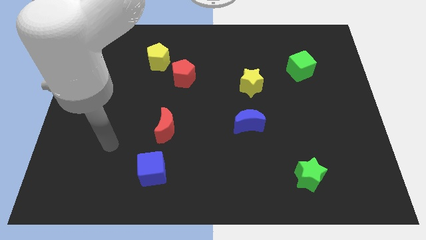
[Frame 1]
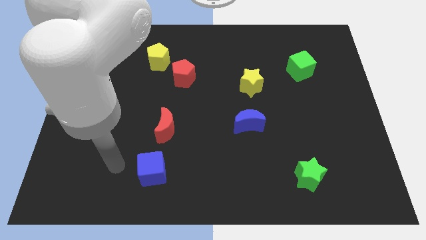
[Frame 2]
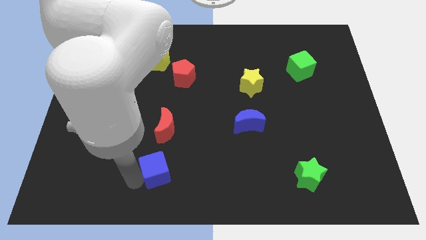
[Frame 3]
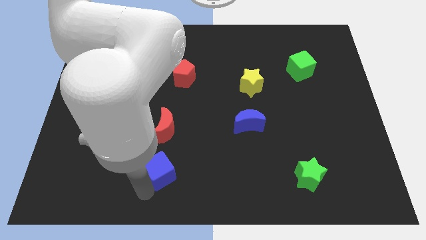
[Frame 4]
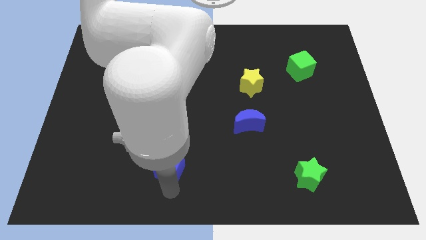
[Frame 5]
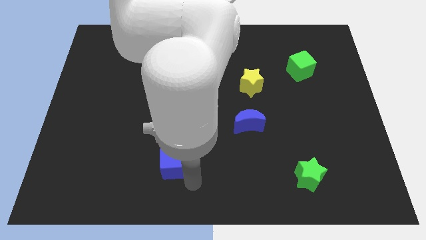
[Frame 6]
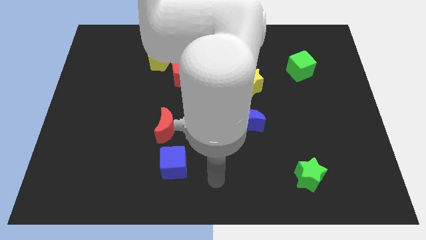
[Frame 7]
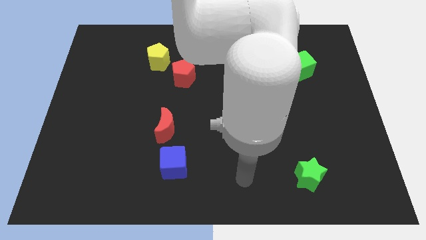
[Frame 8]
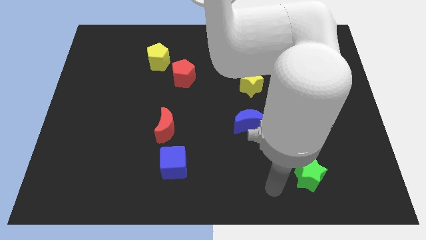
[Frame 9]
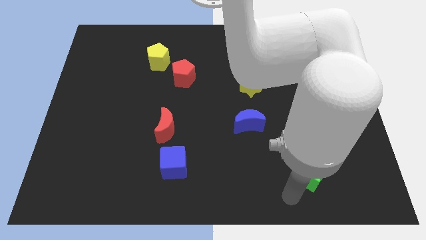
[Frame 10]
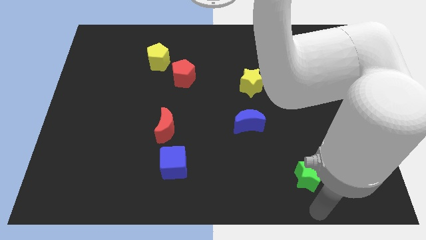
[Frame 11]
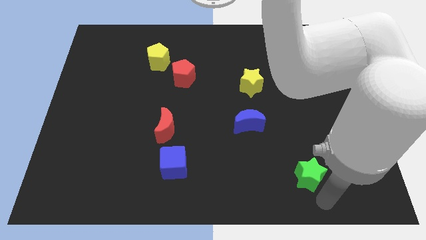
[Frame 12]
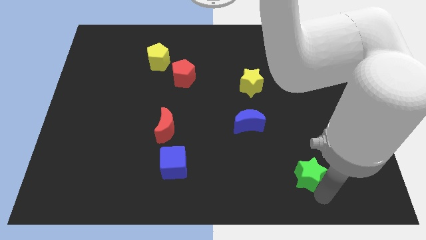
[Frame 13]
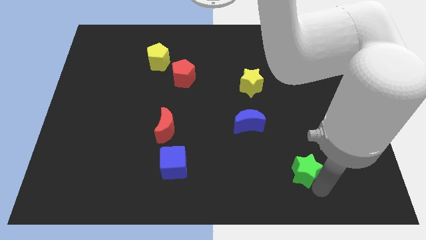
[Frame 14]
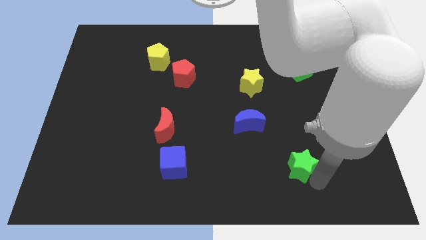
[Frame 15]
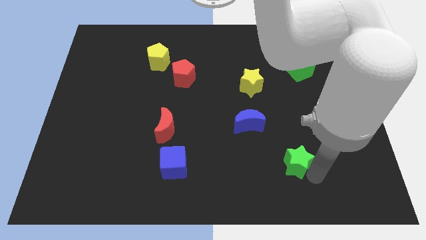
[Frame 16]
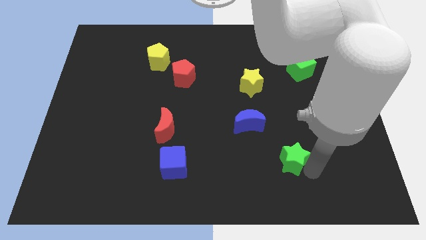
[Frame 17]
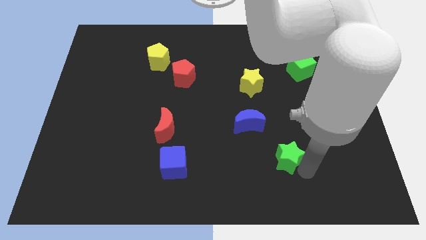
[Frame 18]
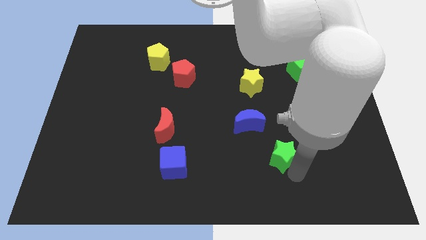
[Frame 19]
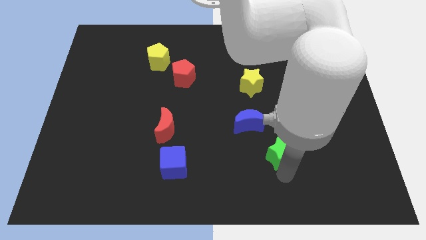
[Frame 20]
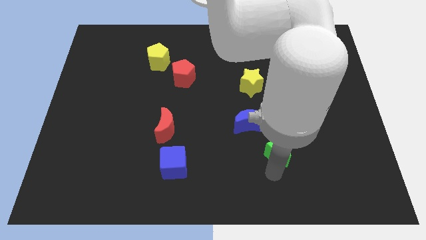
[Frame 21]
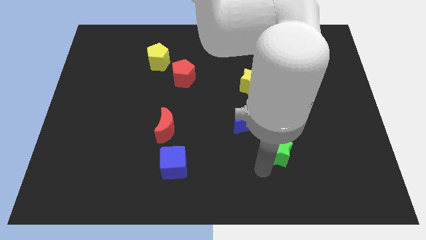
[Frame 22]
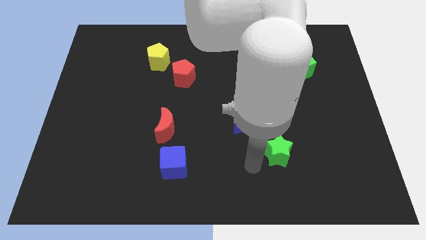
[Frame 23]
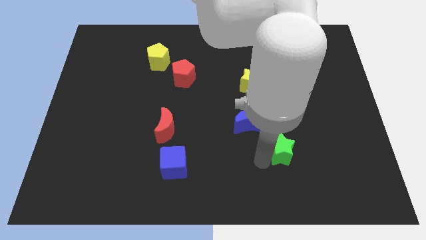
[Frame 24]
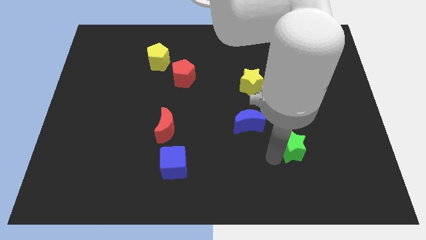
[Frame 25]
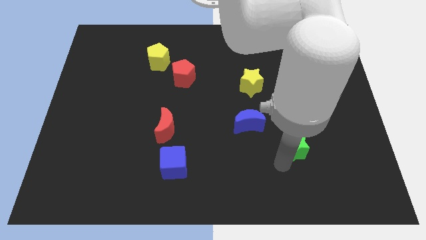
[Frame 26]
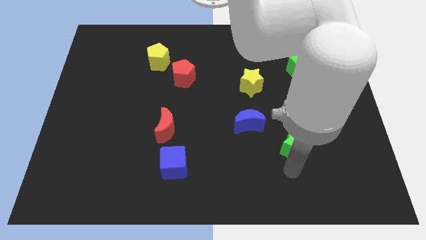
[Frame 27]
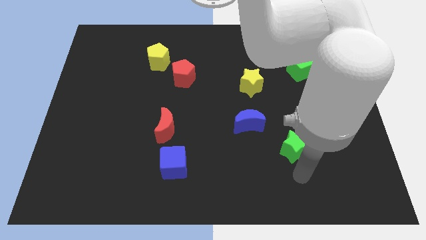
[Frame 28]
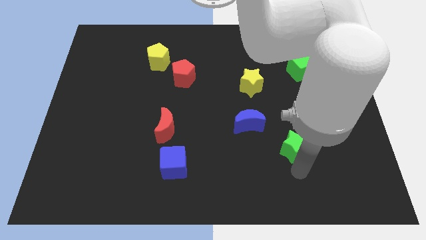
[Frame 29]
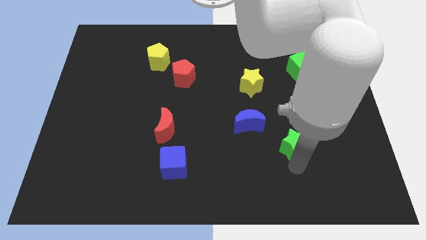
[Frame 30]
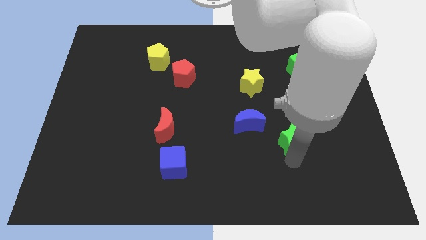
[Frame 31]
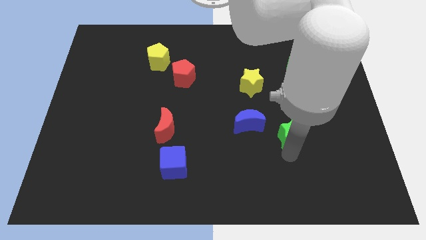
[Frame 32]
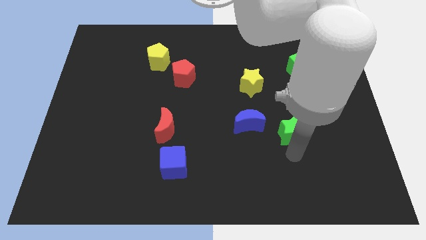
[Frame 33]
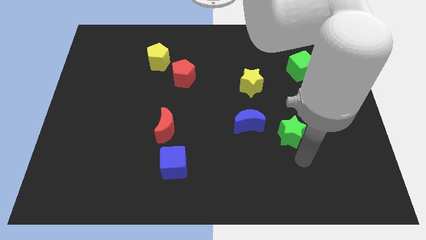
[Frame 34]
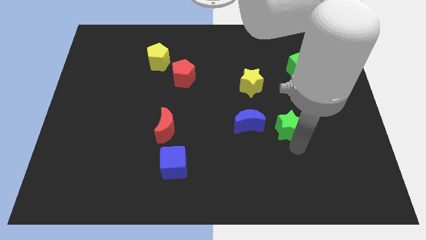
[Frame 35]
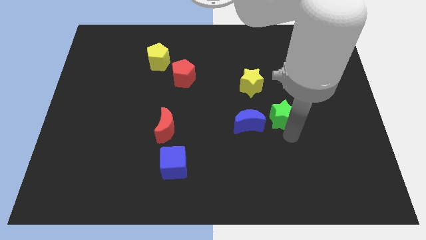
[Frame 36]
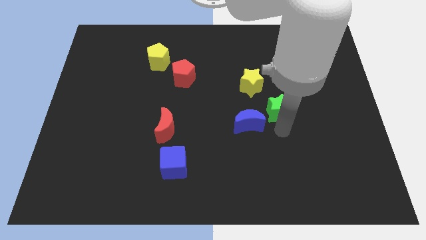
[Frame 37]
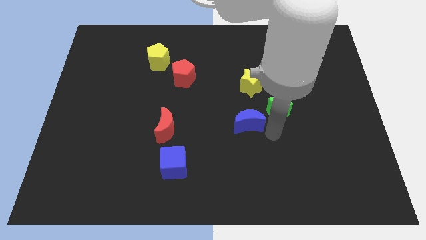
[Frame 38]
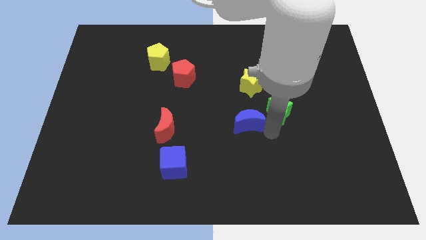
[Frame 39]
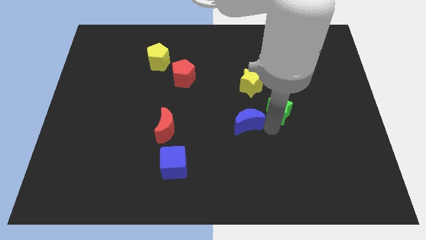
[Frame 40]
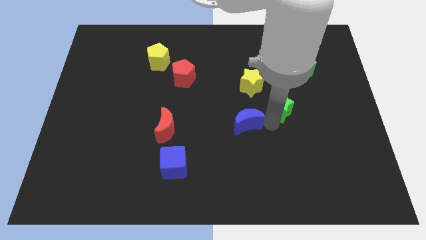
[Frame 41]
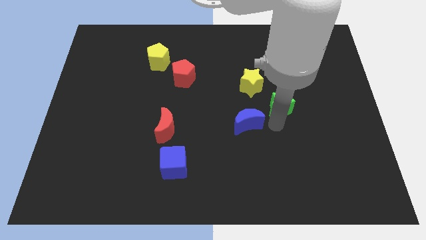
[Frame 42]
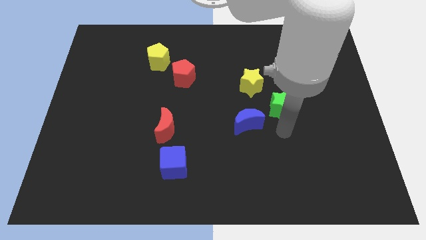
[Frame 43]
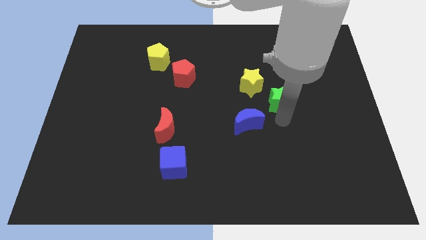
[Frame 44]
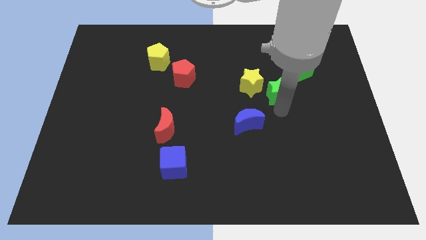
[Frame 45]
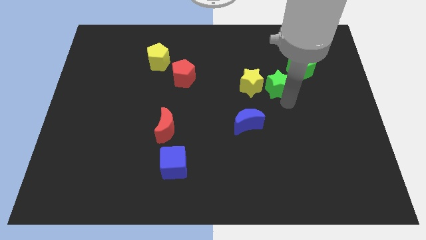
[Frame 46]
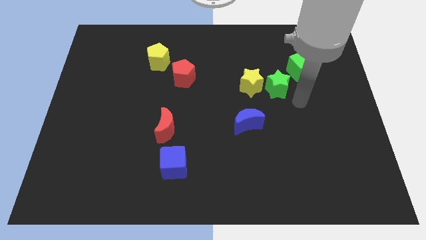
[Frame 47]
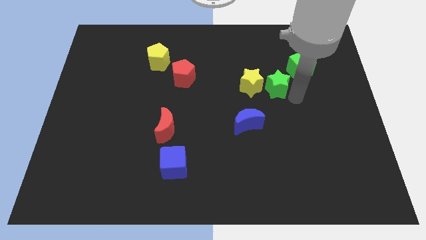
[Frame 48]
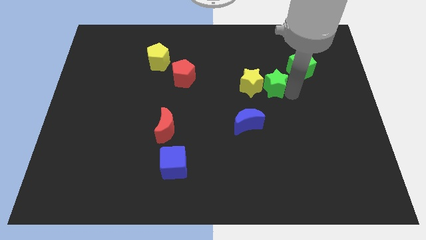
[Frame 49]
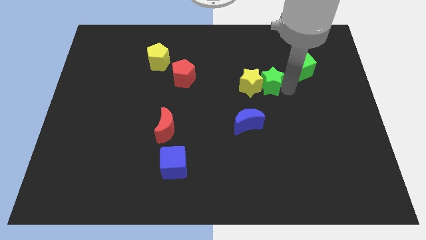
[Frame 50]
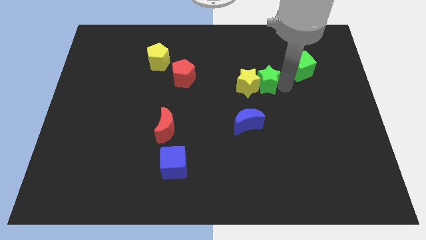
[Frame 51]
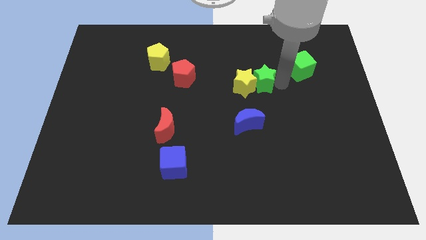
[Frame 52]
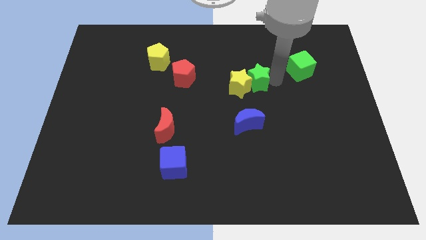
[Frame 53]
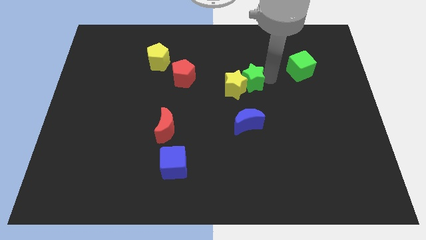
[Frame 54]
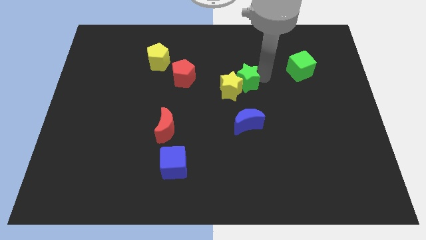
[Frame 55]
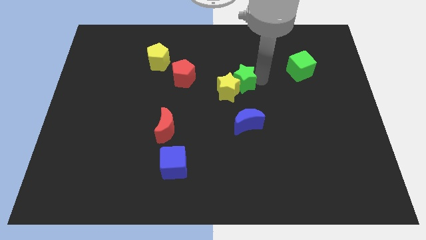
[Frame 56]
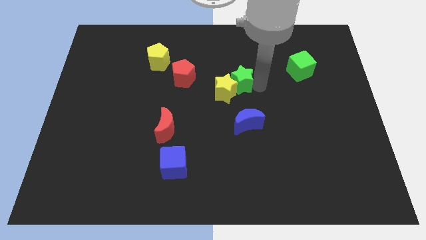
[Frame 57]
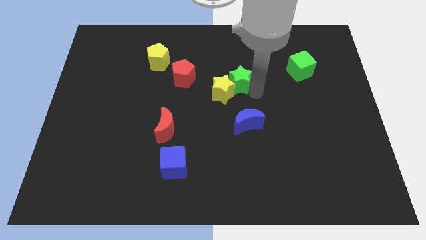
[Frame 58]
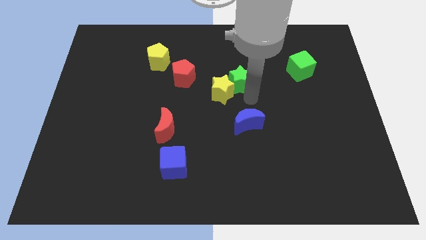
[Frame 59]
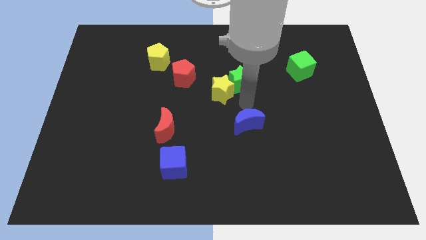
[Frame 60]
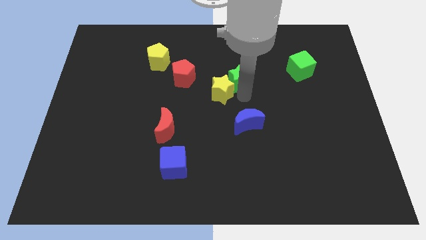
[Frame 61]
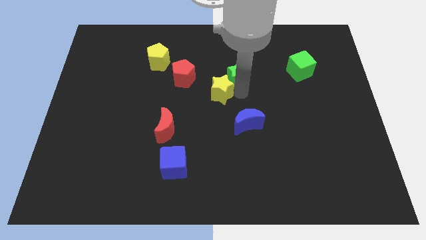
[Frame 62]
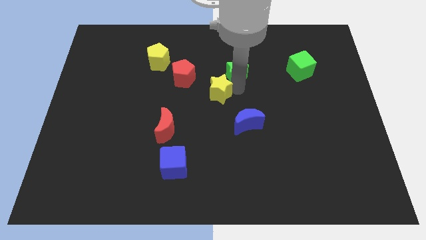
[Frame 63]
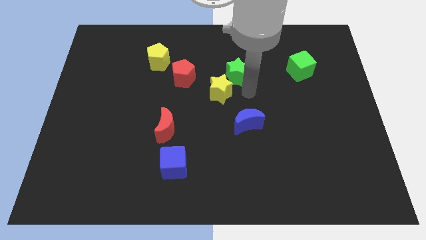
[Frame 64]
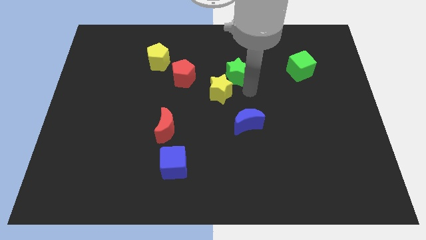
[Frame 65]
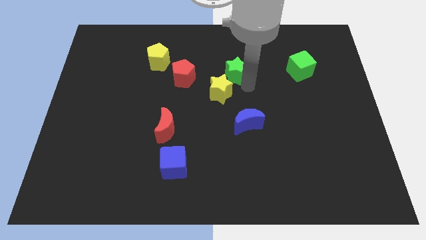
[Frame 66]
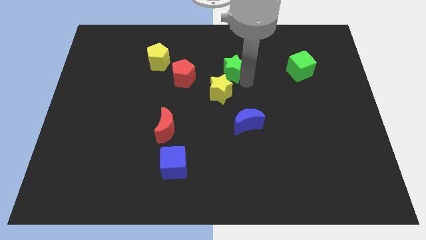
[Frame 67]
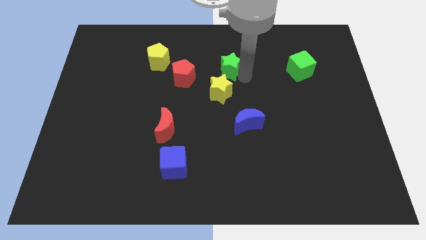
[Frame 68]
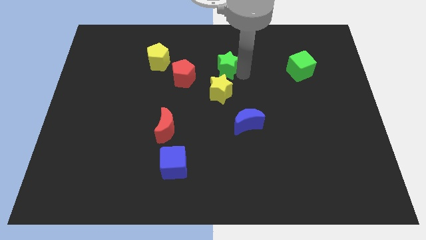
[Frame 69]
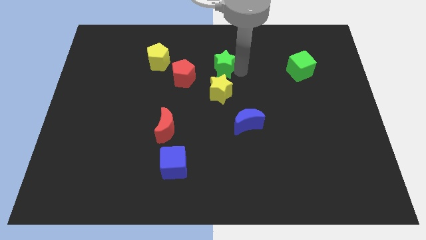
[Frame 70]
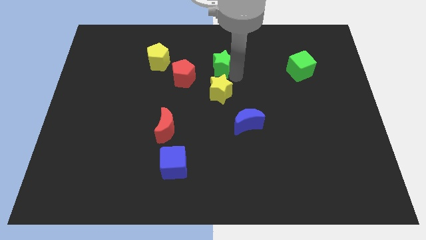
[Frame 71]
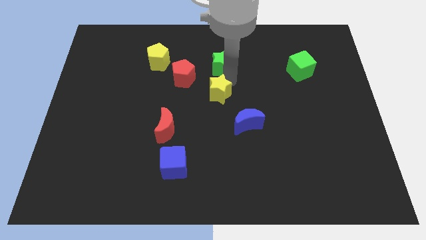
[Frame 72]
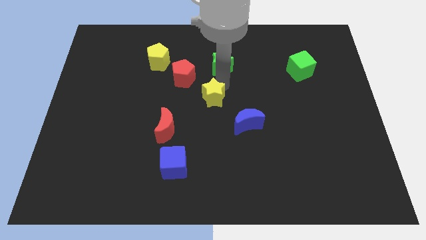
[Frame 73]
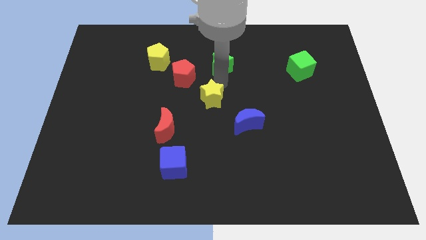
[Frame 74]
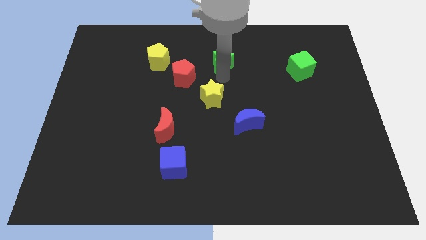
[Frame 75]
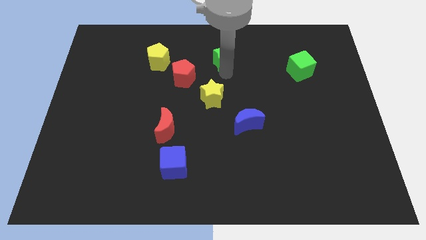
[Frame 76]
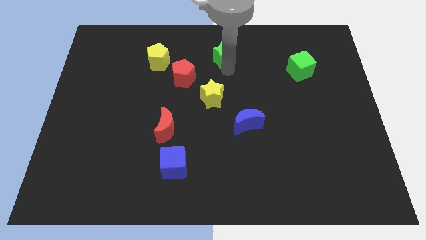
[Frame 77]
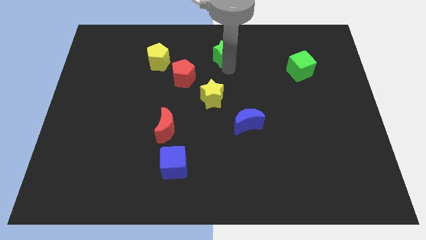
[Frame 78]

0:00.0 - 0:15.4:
slide the green star to the towards your base
